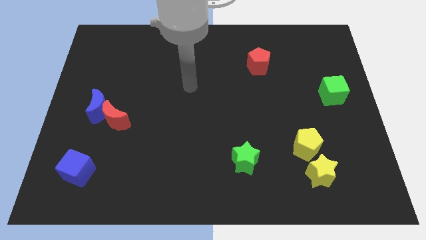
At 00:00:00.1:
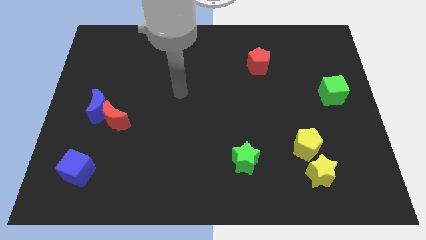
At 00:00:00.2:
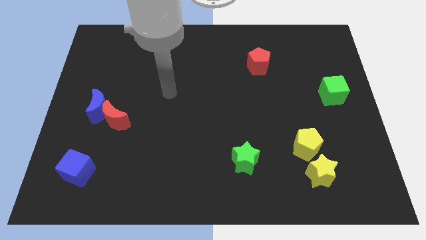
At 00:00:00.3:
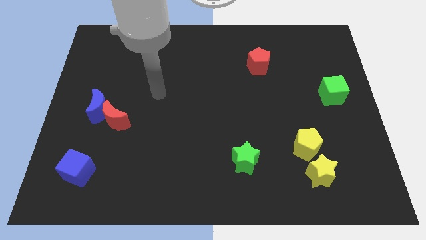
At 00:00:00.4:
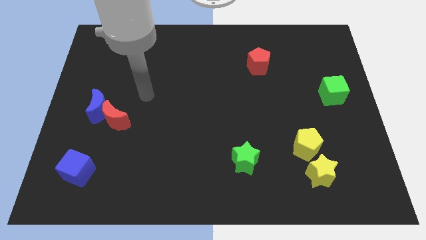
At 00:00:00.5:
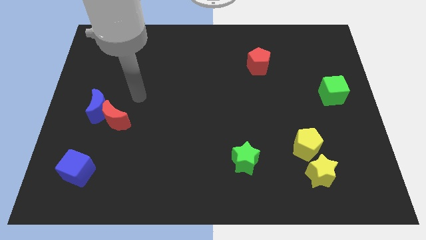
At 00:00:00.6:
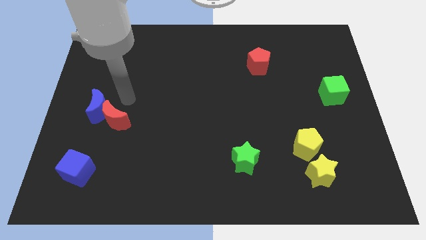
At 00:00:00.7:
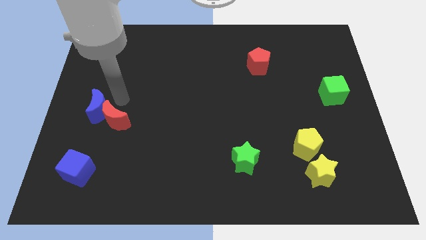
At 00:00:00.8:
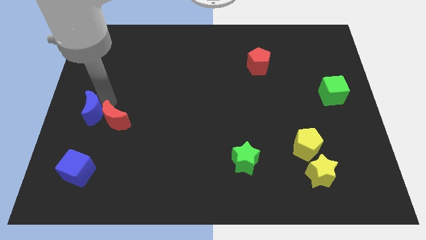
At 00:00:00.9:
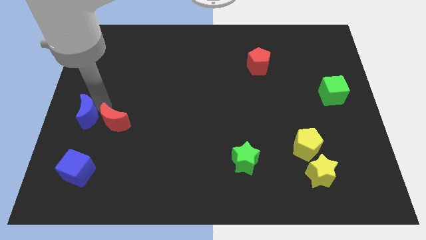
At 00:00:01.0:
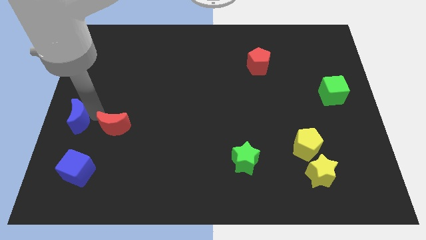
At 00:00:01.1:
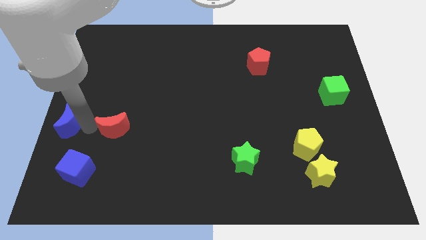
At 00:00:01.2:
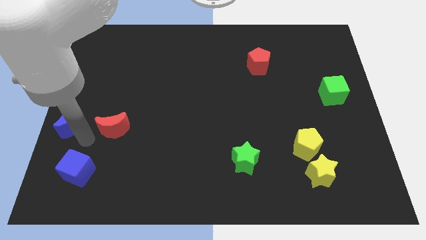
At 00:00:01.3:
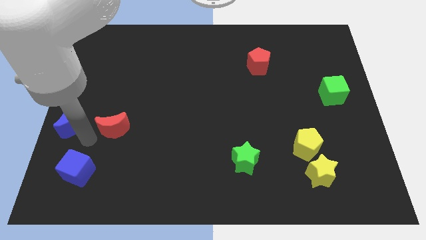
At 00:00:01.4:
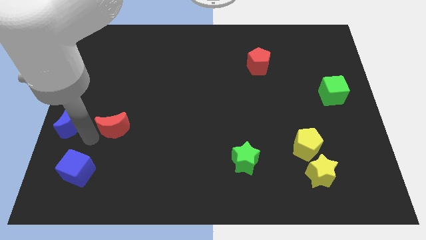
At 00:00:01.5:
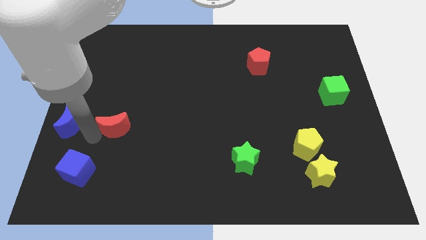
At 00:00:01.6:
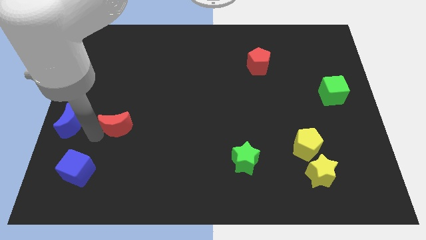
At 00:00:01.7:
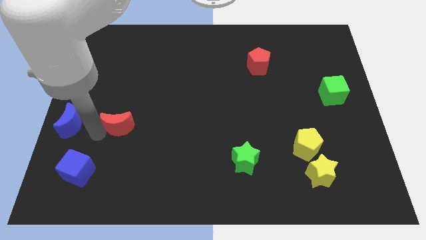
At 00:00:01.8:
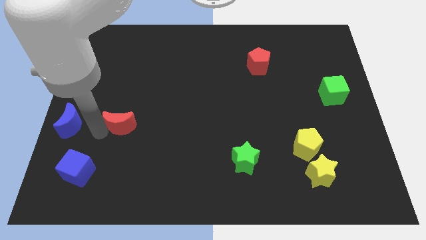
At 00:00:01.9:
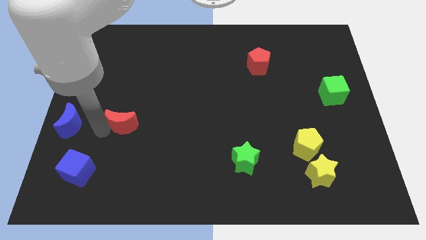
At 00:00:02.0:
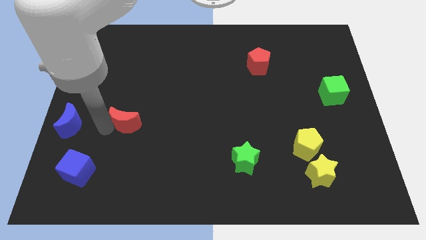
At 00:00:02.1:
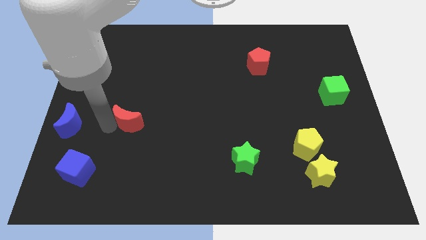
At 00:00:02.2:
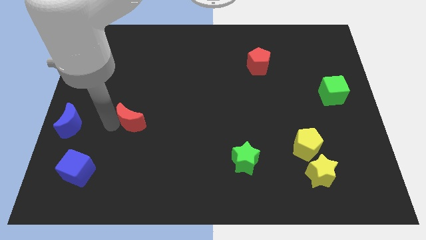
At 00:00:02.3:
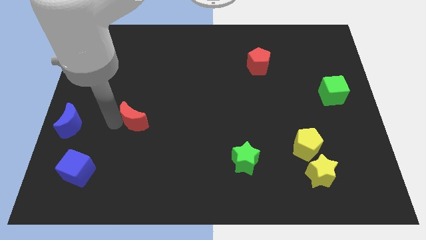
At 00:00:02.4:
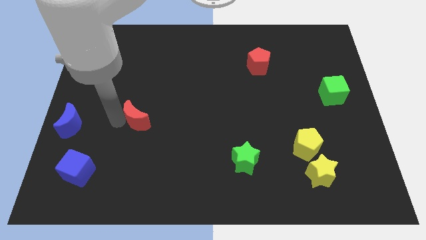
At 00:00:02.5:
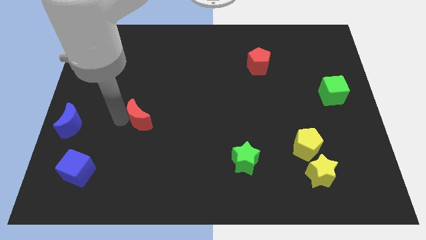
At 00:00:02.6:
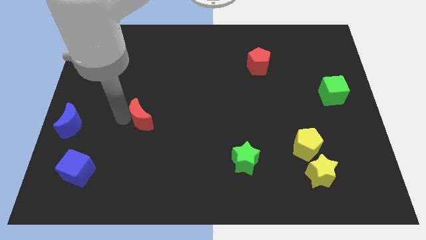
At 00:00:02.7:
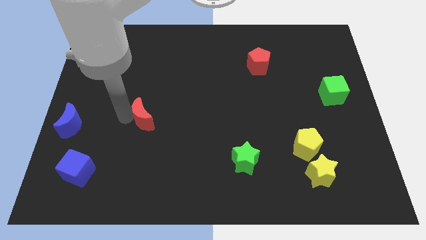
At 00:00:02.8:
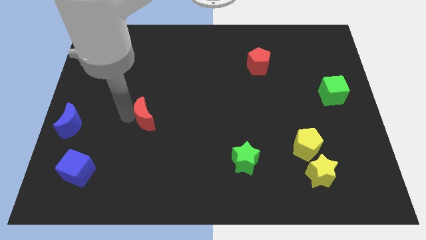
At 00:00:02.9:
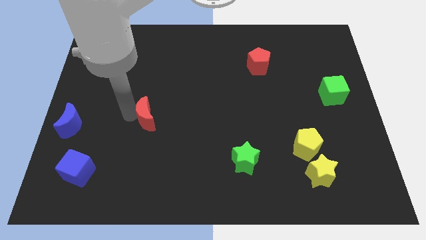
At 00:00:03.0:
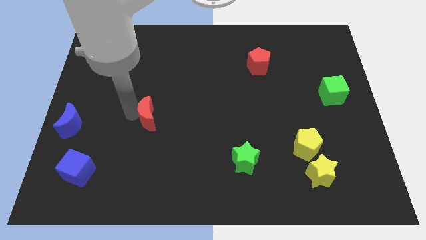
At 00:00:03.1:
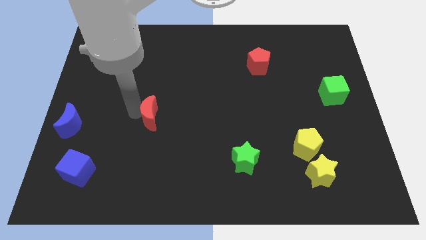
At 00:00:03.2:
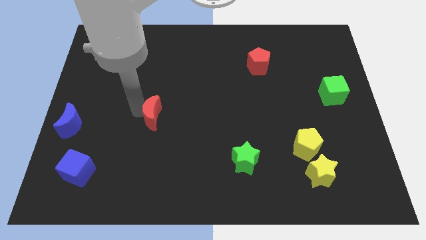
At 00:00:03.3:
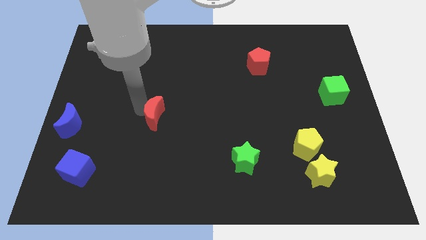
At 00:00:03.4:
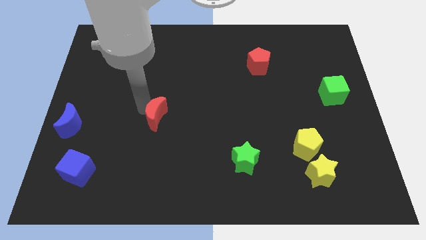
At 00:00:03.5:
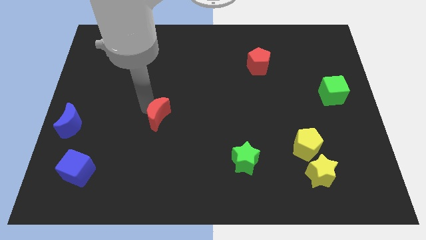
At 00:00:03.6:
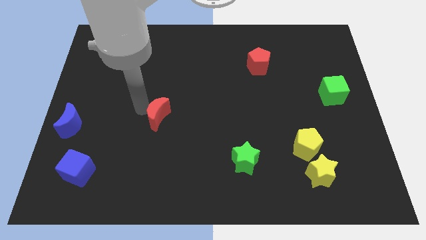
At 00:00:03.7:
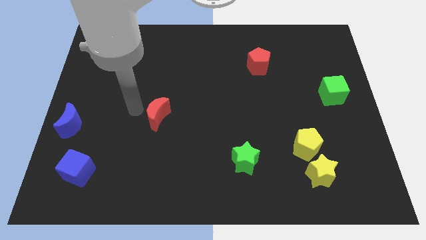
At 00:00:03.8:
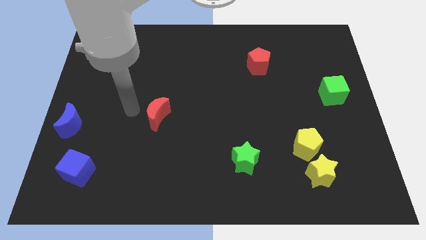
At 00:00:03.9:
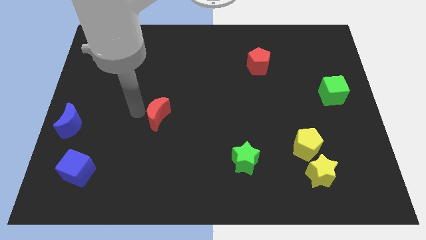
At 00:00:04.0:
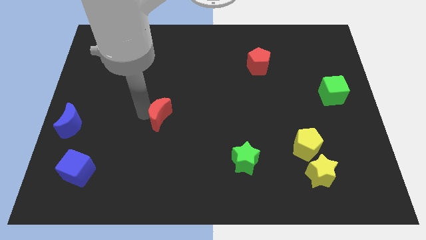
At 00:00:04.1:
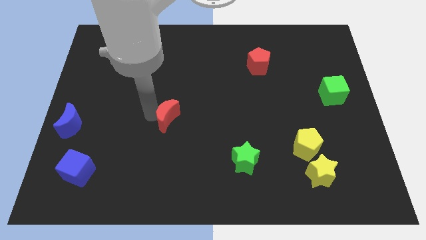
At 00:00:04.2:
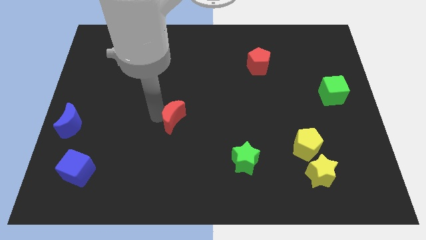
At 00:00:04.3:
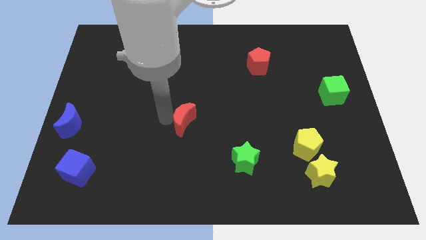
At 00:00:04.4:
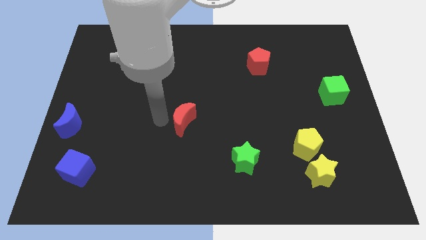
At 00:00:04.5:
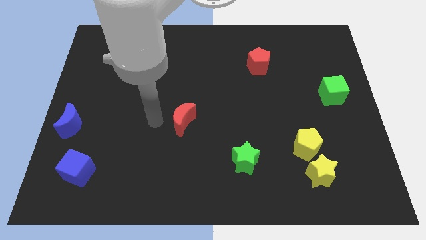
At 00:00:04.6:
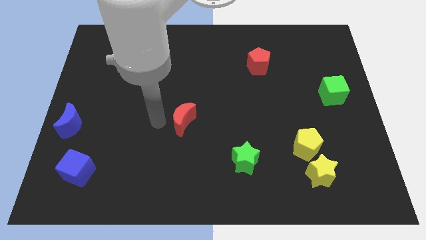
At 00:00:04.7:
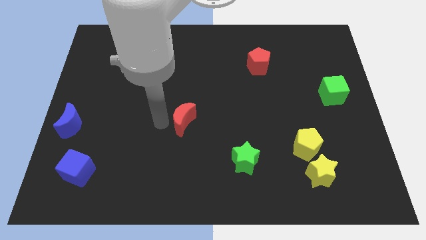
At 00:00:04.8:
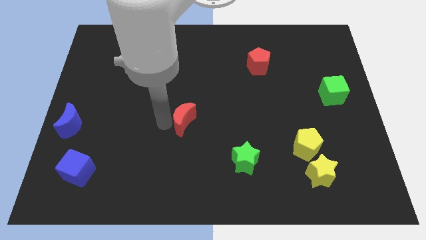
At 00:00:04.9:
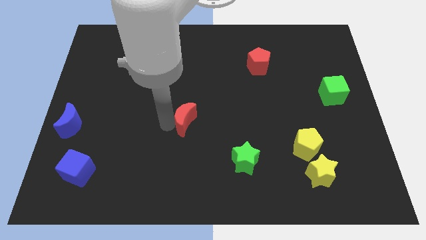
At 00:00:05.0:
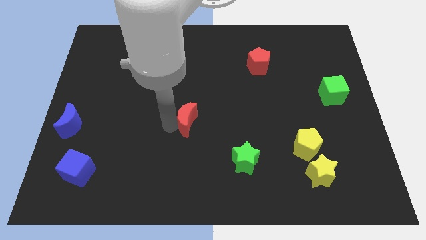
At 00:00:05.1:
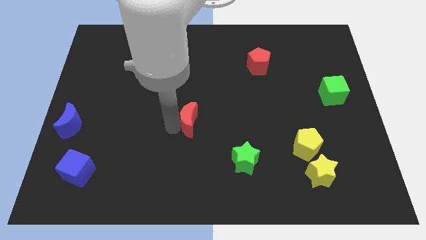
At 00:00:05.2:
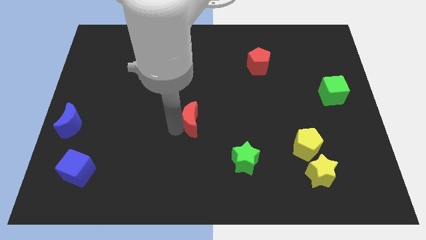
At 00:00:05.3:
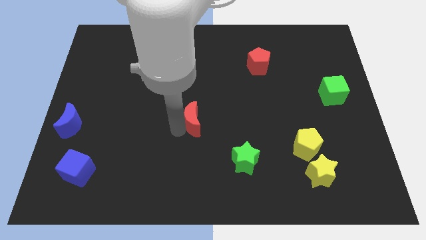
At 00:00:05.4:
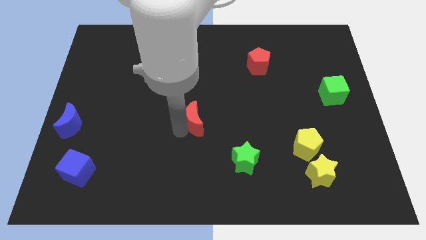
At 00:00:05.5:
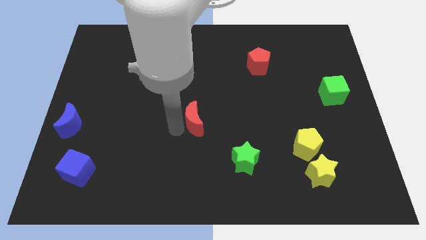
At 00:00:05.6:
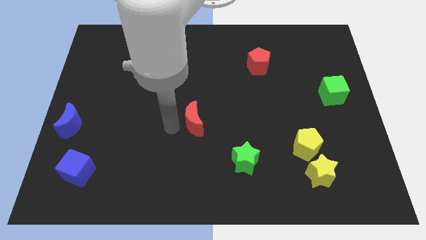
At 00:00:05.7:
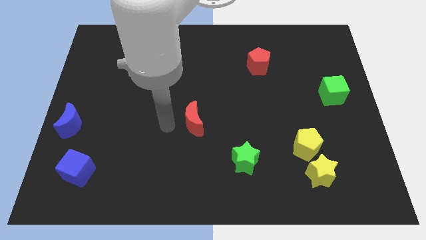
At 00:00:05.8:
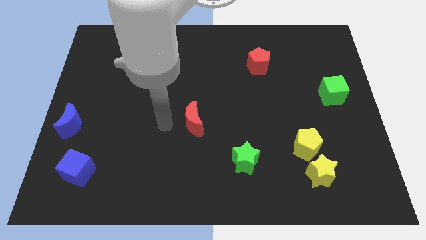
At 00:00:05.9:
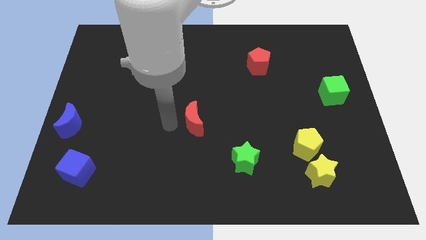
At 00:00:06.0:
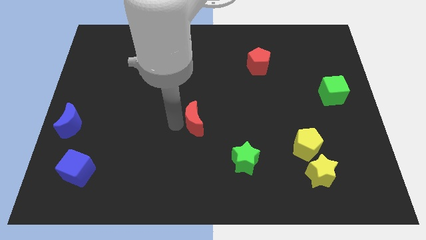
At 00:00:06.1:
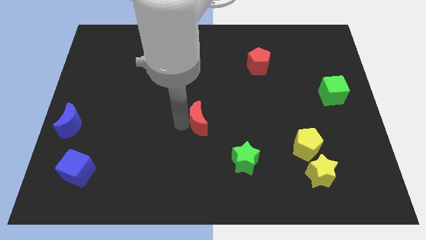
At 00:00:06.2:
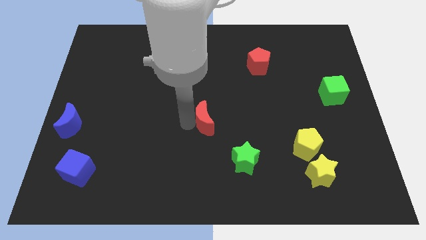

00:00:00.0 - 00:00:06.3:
push the red moon right

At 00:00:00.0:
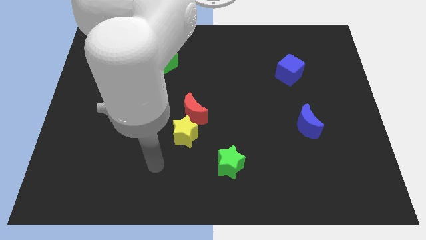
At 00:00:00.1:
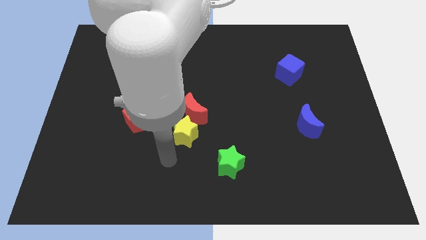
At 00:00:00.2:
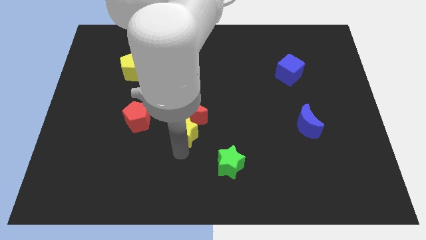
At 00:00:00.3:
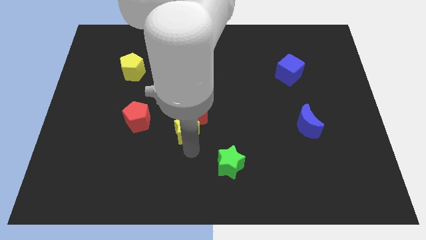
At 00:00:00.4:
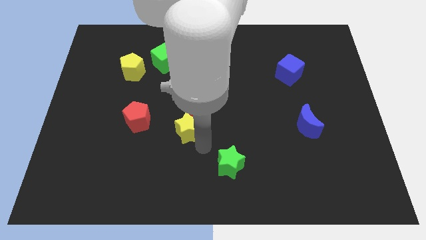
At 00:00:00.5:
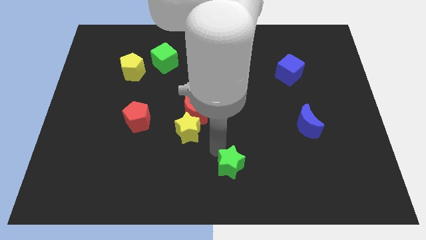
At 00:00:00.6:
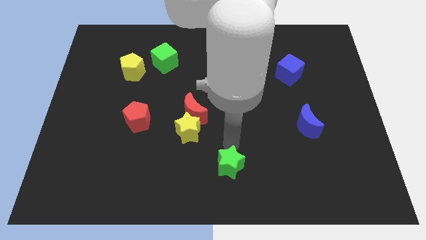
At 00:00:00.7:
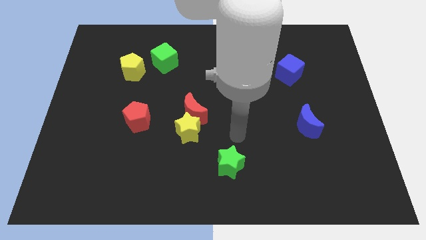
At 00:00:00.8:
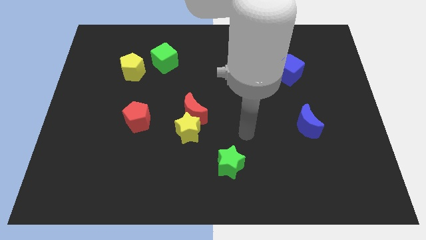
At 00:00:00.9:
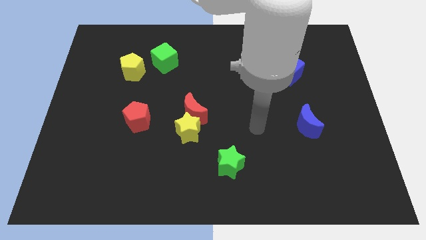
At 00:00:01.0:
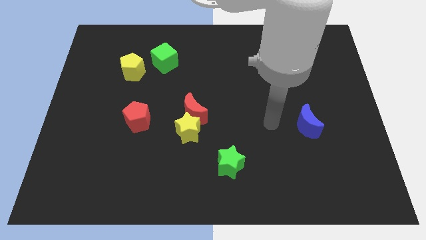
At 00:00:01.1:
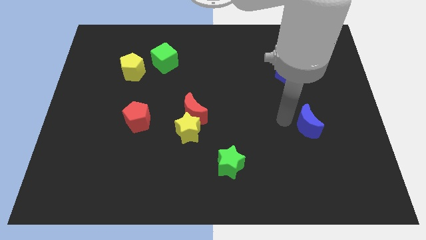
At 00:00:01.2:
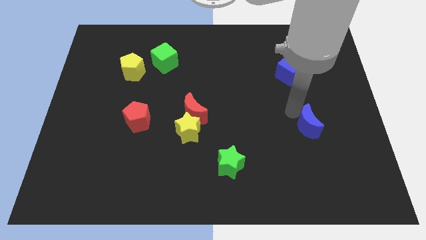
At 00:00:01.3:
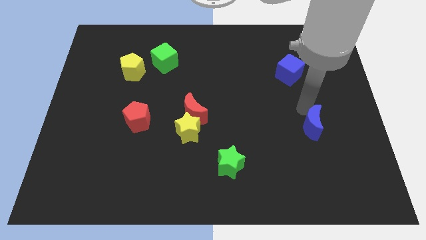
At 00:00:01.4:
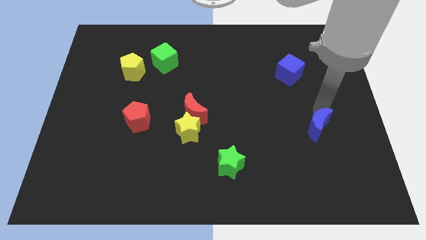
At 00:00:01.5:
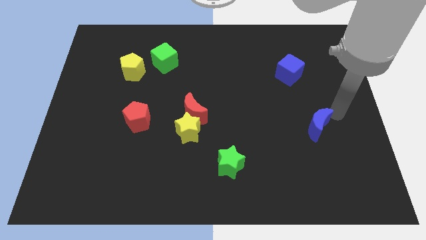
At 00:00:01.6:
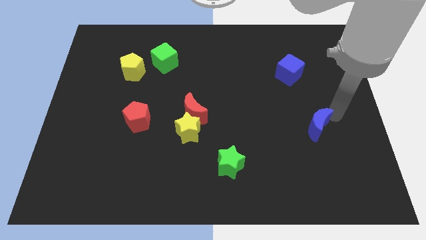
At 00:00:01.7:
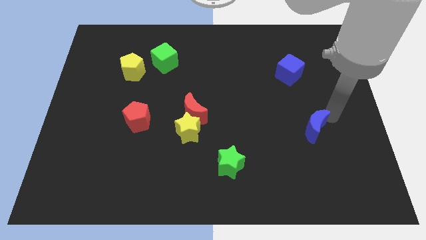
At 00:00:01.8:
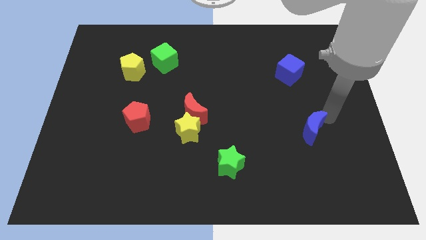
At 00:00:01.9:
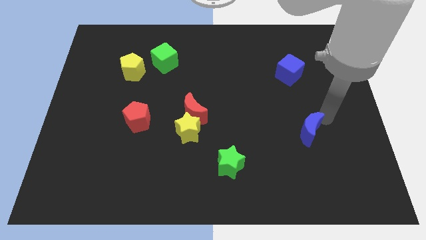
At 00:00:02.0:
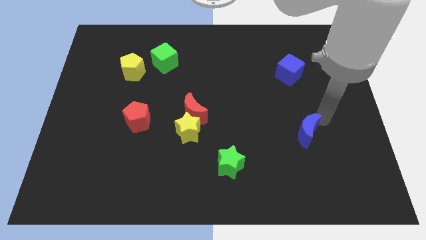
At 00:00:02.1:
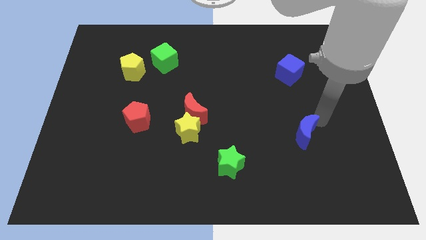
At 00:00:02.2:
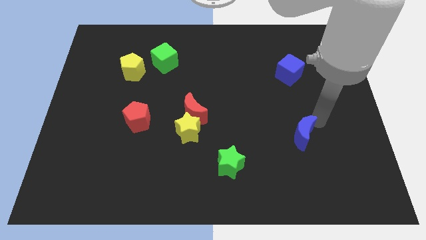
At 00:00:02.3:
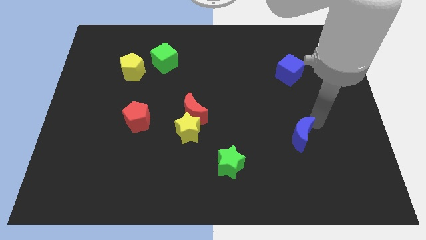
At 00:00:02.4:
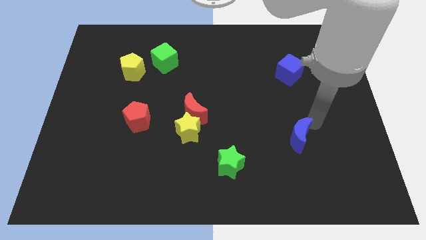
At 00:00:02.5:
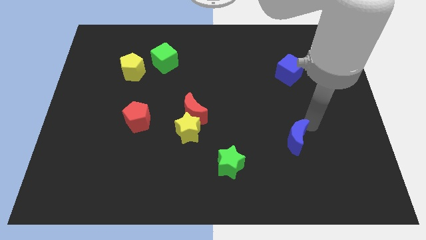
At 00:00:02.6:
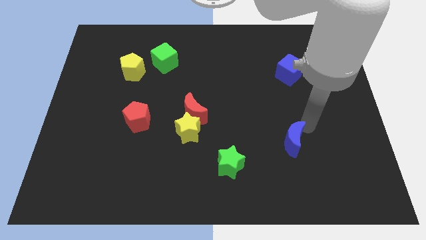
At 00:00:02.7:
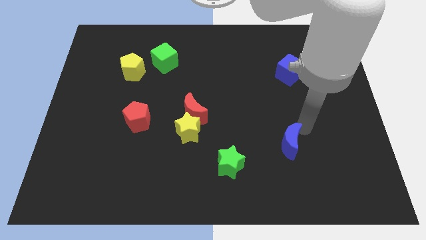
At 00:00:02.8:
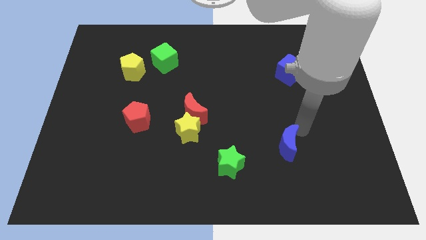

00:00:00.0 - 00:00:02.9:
slightly slide the blue moon downwards and left diagonally
